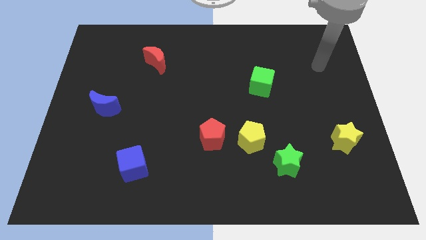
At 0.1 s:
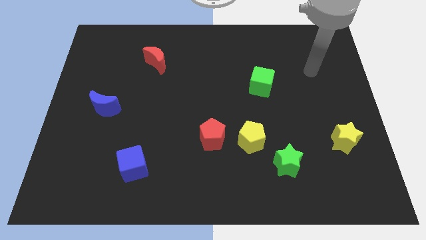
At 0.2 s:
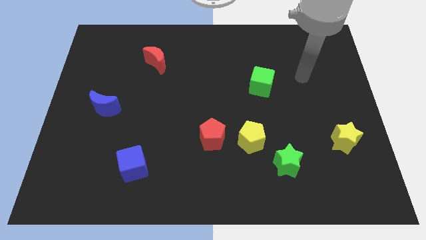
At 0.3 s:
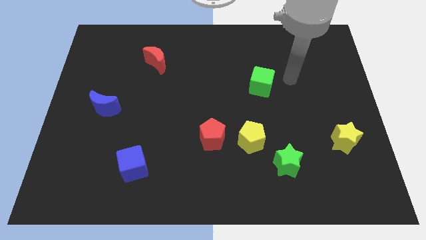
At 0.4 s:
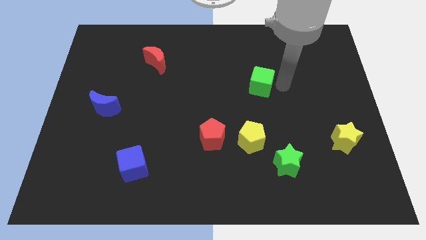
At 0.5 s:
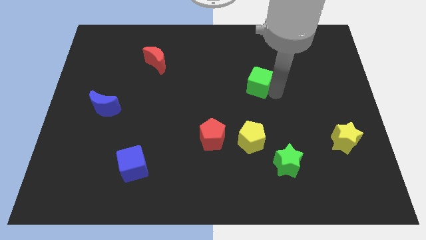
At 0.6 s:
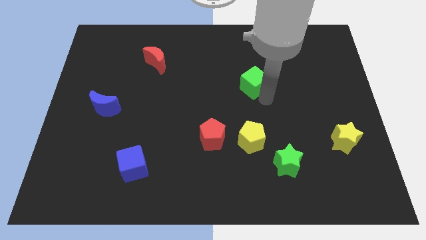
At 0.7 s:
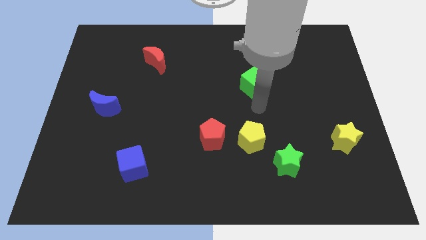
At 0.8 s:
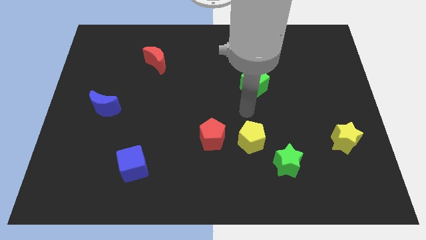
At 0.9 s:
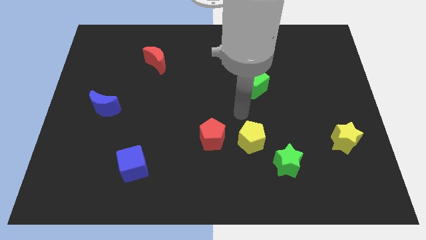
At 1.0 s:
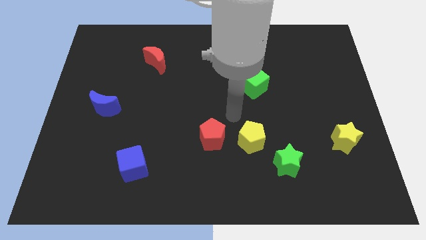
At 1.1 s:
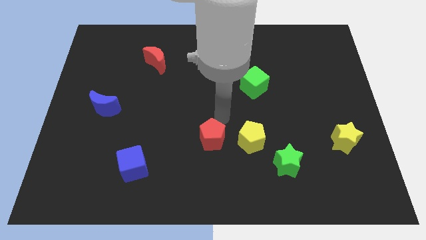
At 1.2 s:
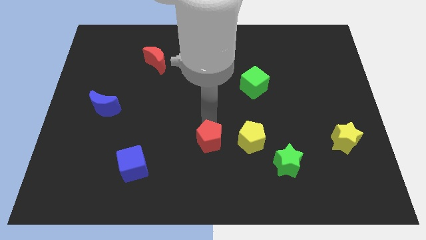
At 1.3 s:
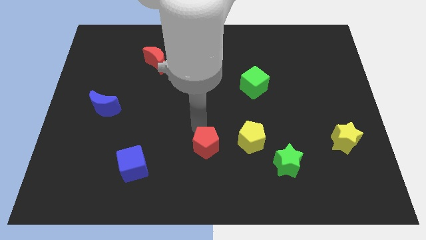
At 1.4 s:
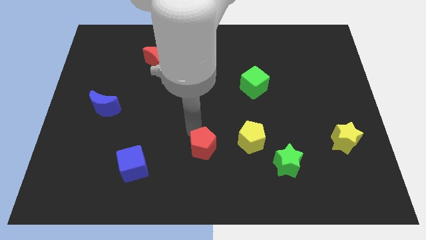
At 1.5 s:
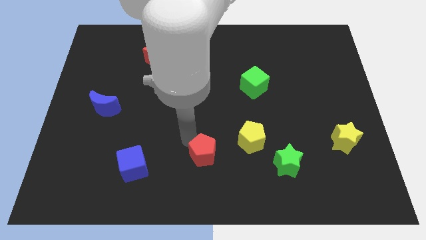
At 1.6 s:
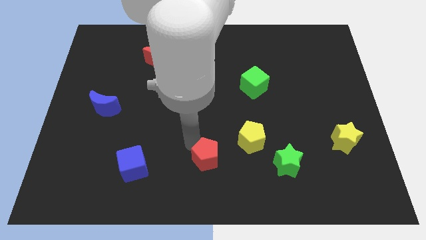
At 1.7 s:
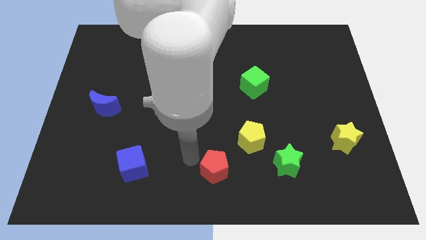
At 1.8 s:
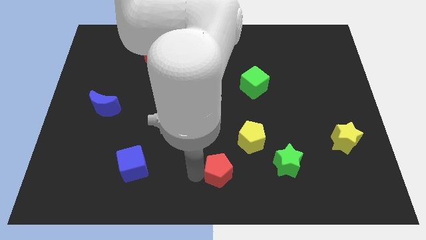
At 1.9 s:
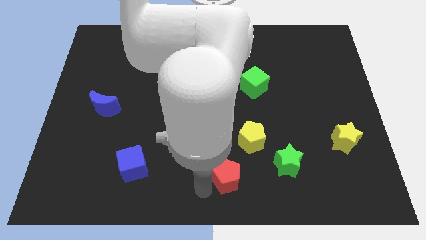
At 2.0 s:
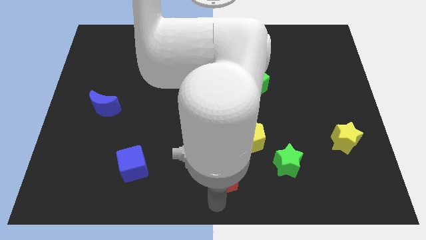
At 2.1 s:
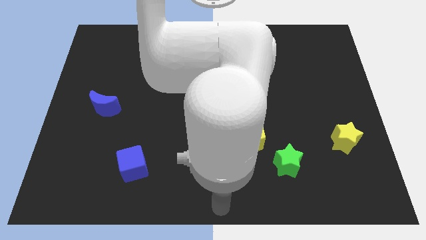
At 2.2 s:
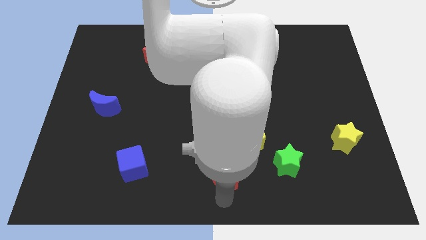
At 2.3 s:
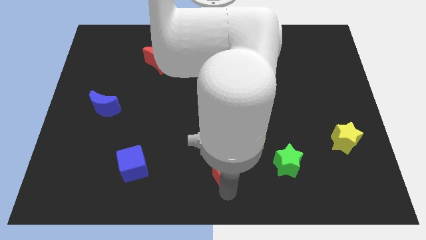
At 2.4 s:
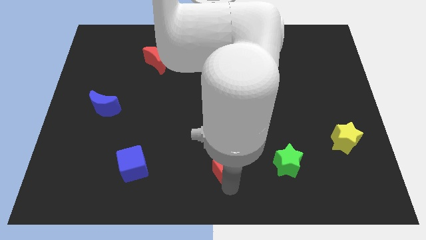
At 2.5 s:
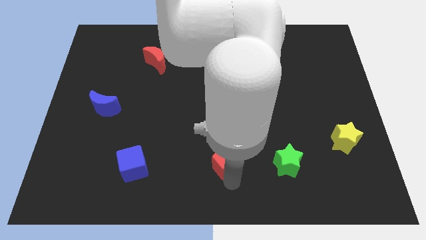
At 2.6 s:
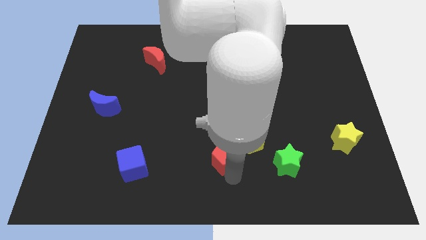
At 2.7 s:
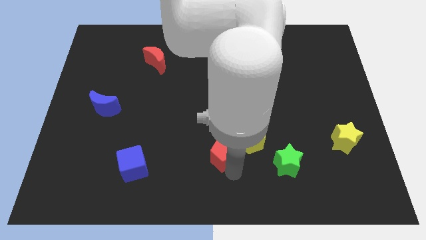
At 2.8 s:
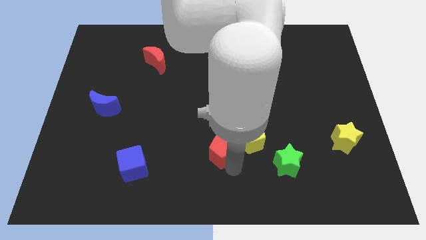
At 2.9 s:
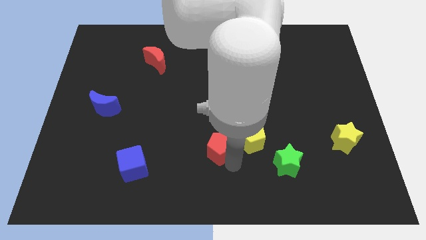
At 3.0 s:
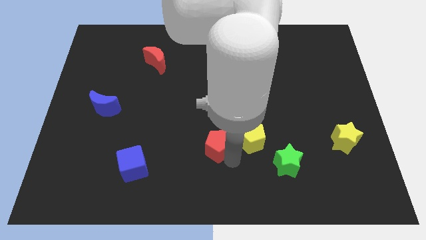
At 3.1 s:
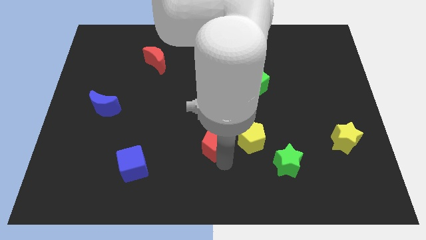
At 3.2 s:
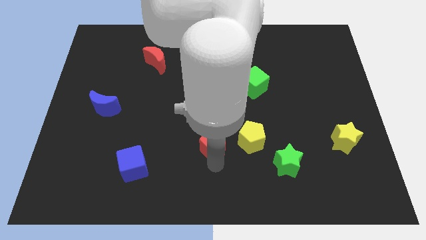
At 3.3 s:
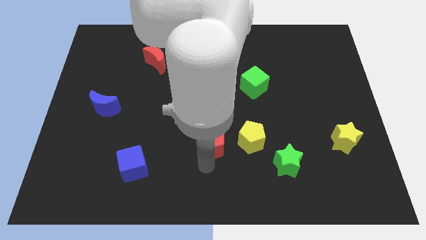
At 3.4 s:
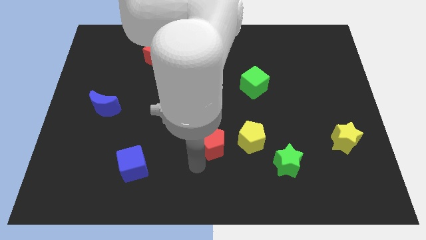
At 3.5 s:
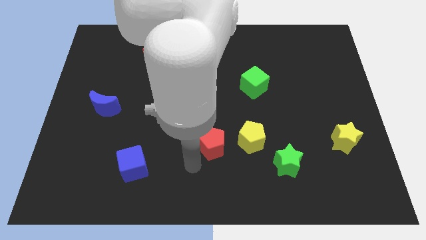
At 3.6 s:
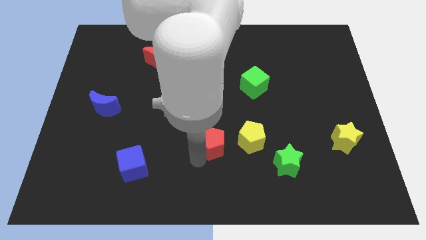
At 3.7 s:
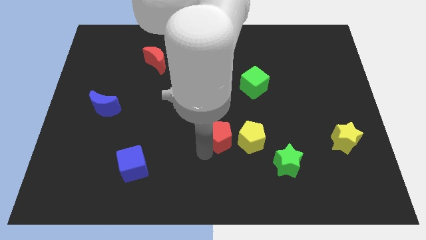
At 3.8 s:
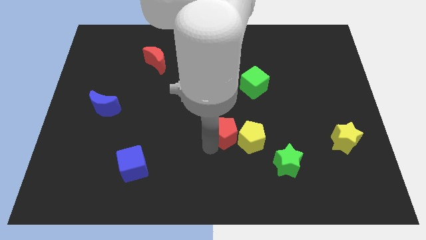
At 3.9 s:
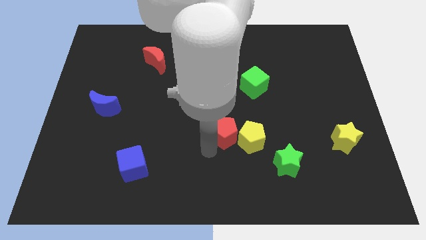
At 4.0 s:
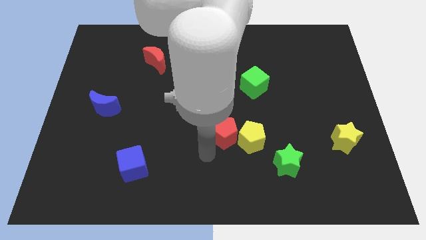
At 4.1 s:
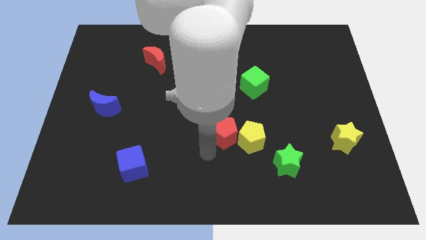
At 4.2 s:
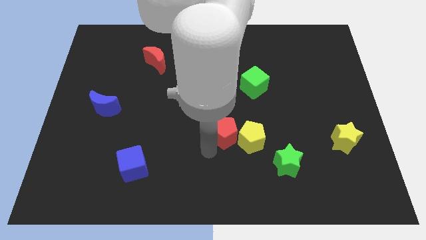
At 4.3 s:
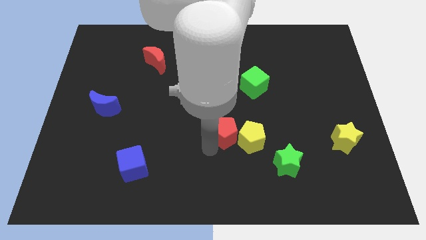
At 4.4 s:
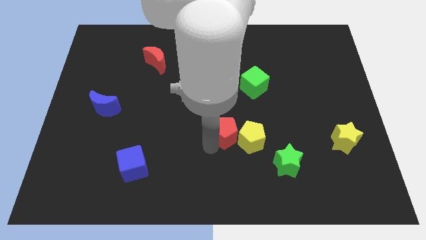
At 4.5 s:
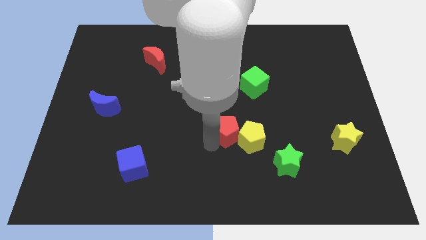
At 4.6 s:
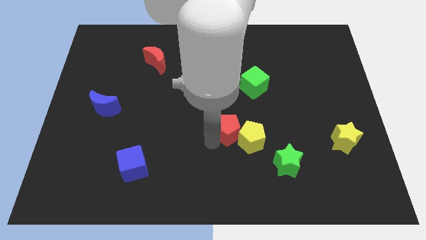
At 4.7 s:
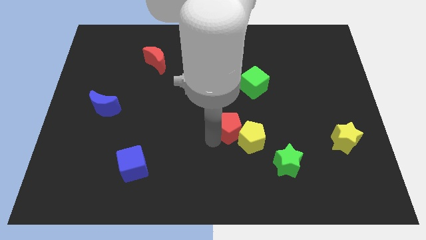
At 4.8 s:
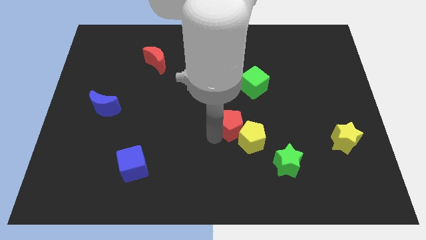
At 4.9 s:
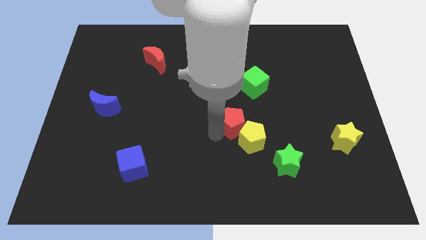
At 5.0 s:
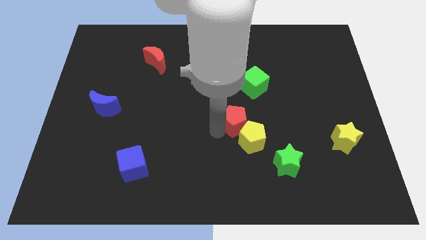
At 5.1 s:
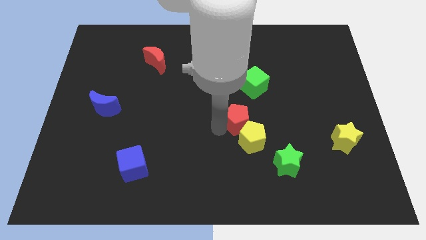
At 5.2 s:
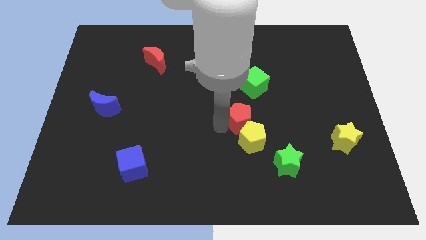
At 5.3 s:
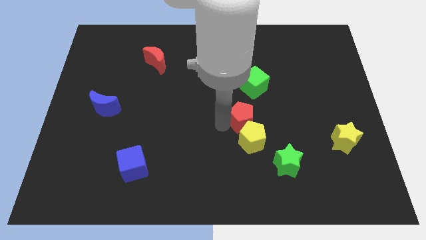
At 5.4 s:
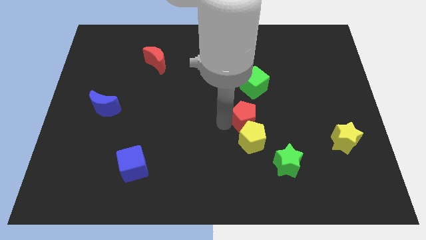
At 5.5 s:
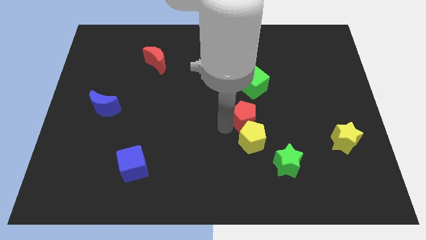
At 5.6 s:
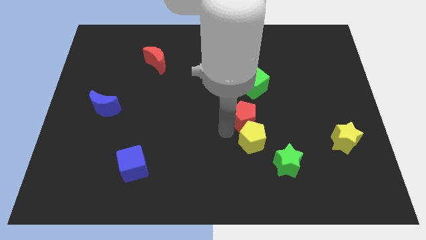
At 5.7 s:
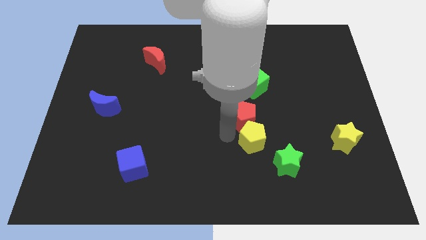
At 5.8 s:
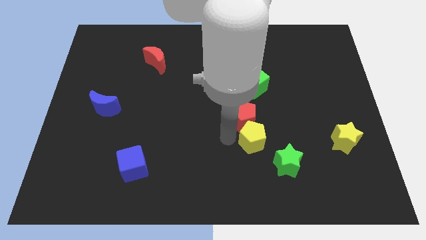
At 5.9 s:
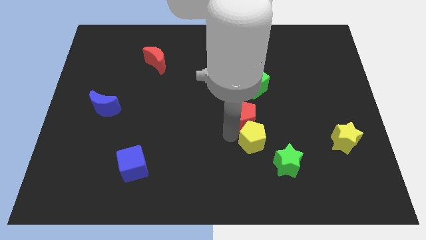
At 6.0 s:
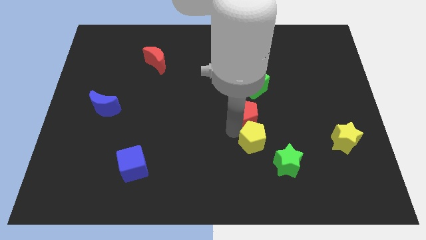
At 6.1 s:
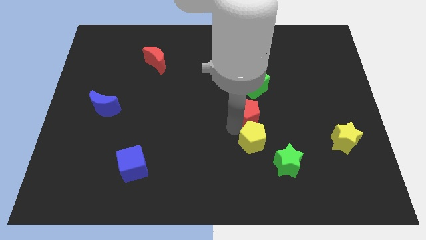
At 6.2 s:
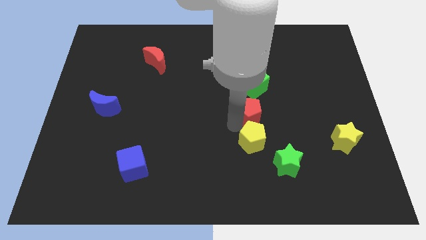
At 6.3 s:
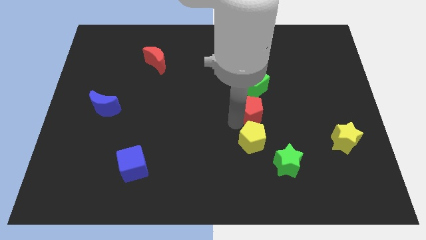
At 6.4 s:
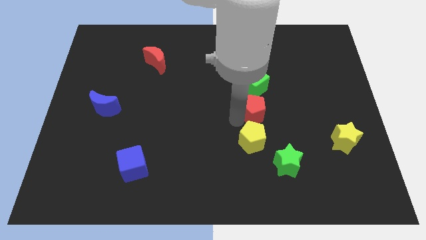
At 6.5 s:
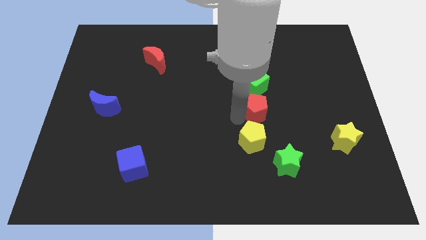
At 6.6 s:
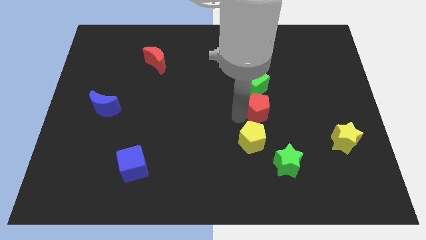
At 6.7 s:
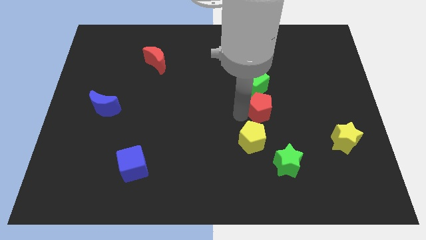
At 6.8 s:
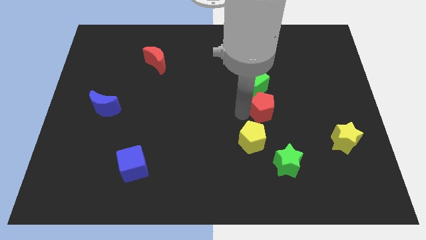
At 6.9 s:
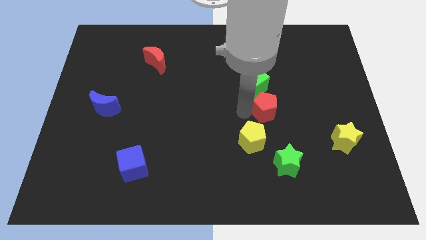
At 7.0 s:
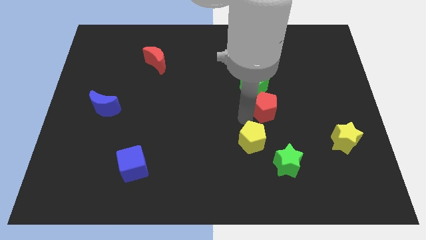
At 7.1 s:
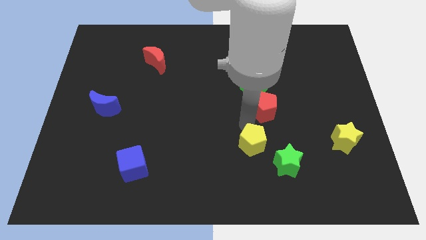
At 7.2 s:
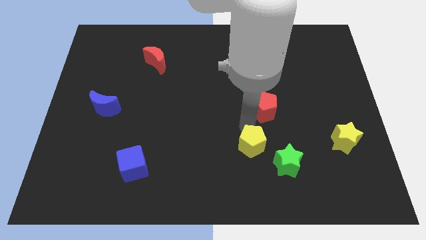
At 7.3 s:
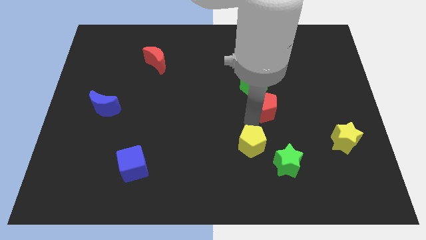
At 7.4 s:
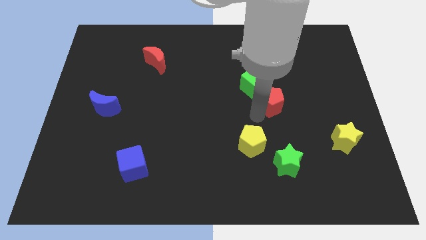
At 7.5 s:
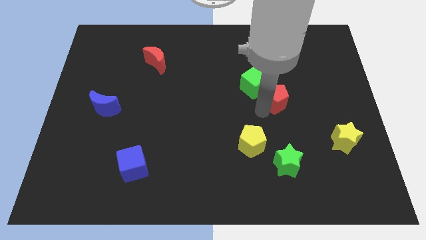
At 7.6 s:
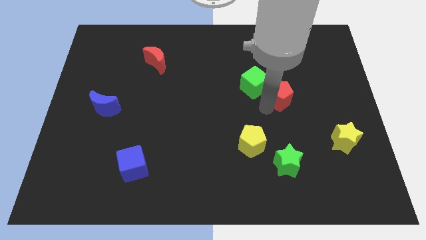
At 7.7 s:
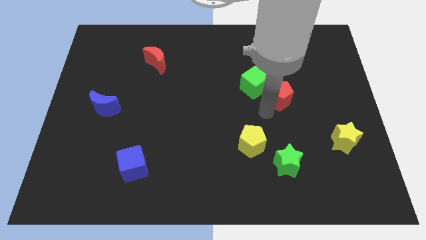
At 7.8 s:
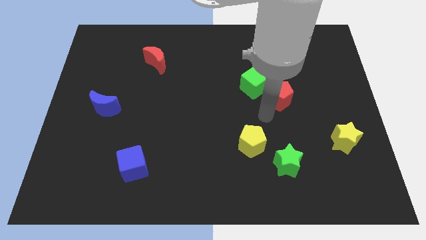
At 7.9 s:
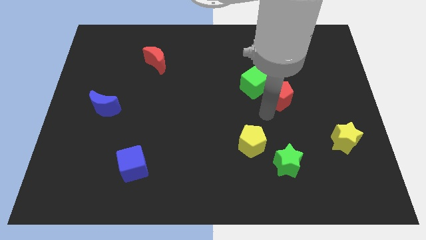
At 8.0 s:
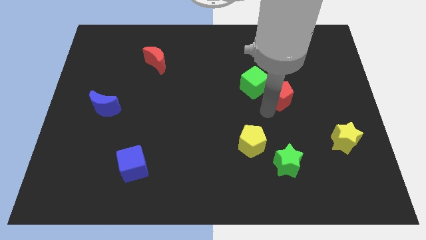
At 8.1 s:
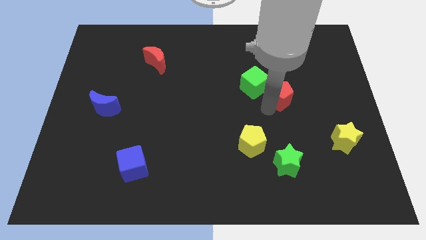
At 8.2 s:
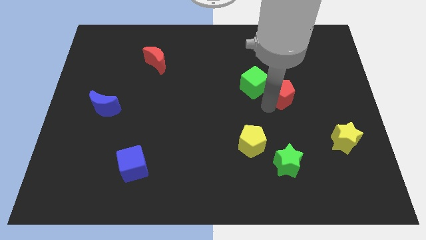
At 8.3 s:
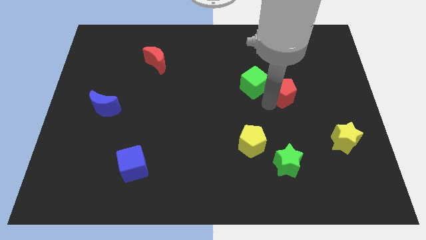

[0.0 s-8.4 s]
slide the red pentagon up and then right
